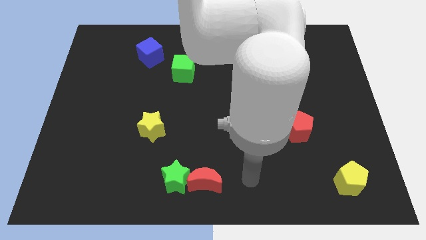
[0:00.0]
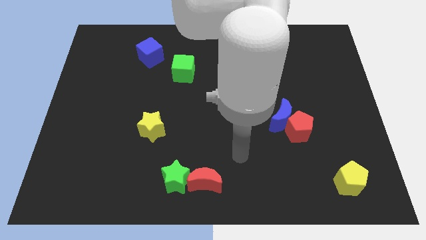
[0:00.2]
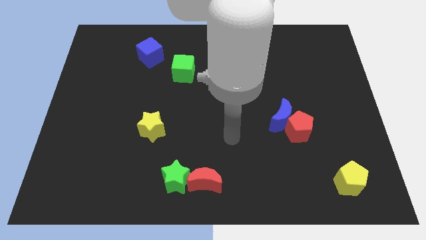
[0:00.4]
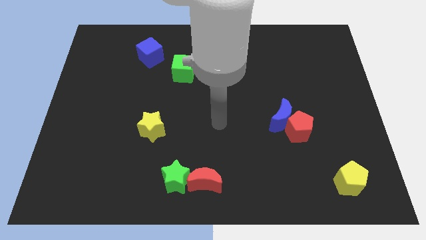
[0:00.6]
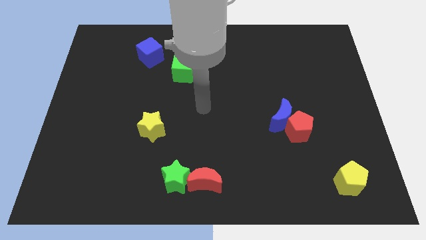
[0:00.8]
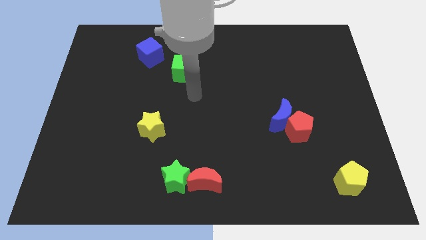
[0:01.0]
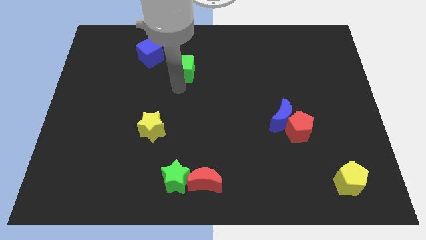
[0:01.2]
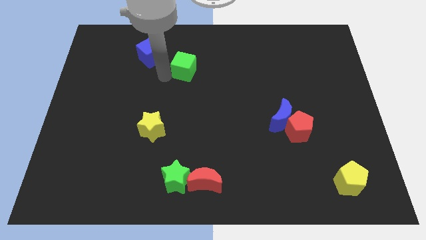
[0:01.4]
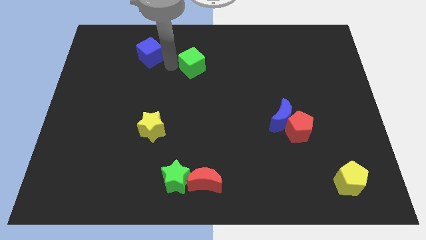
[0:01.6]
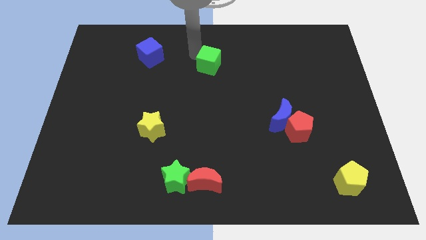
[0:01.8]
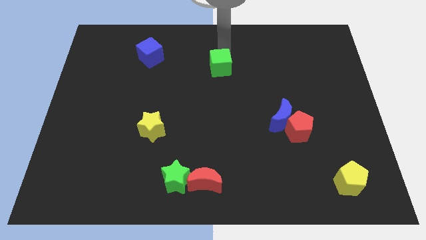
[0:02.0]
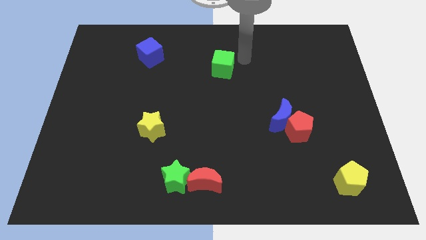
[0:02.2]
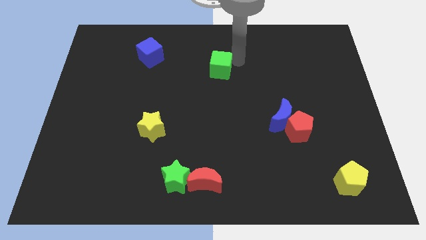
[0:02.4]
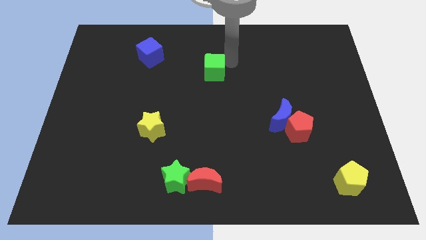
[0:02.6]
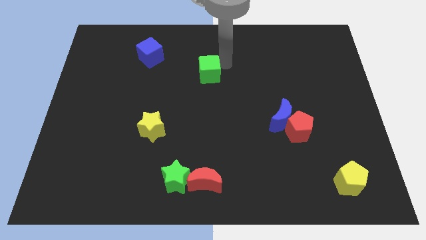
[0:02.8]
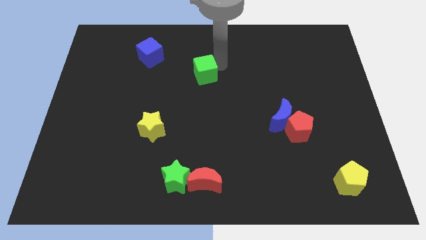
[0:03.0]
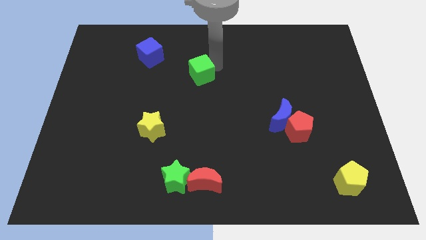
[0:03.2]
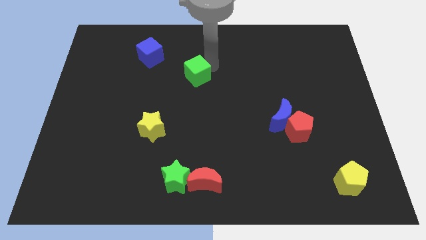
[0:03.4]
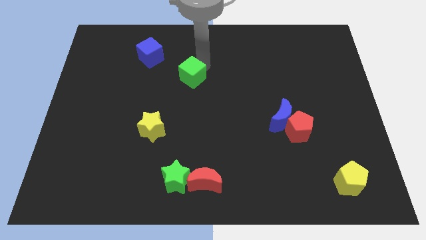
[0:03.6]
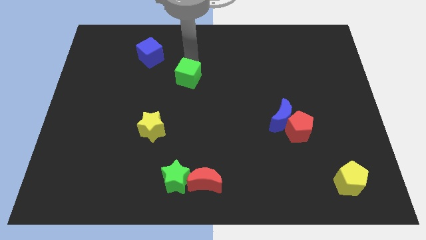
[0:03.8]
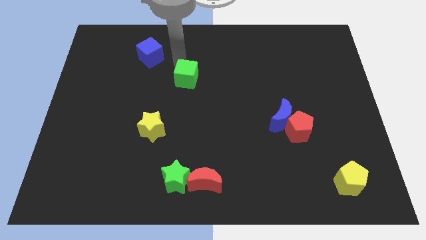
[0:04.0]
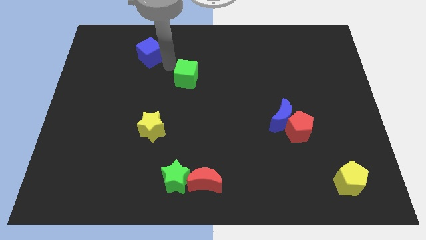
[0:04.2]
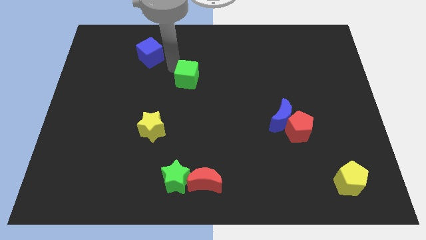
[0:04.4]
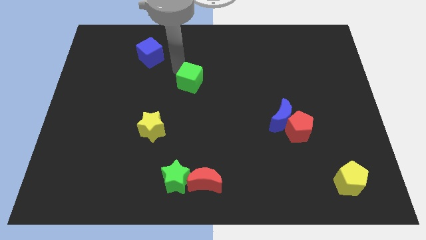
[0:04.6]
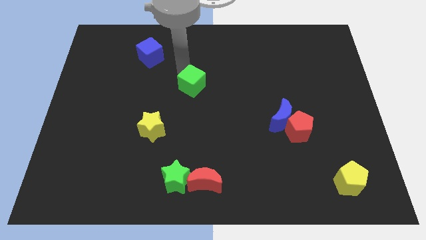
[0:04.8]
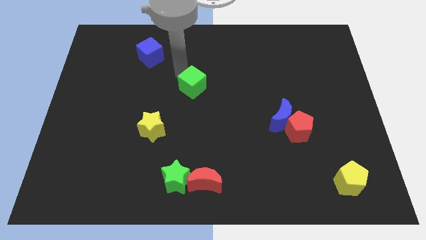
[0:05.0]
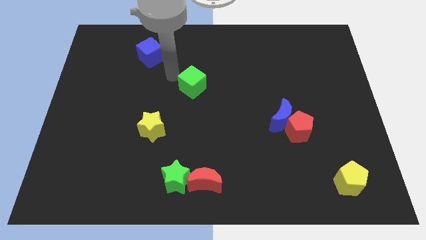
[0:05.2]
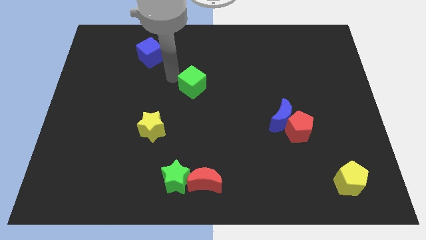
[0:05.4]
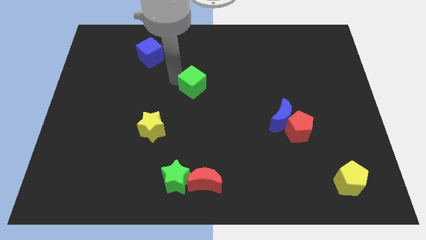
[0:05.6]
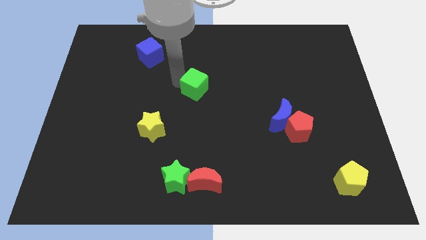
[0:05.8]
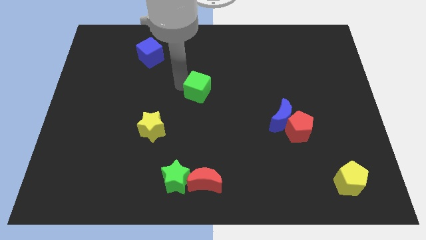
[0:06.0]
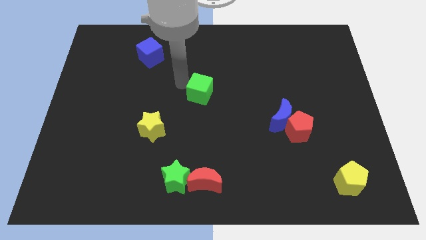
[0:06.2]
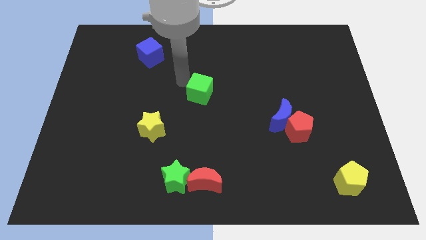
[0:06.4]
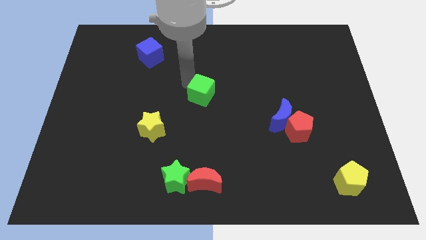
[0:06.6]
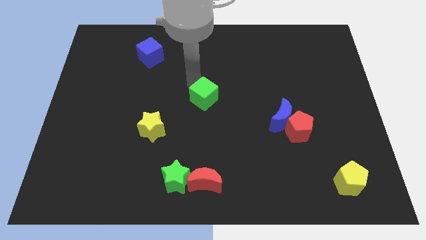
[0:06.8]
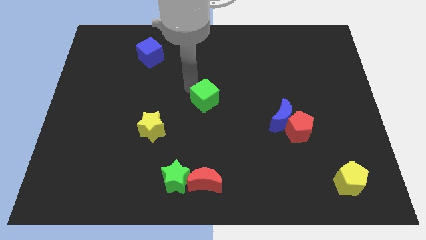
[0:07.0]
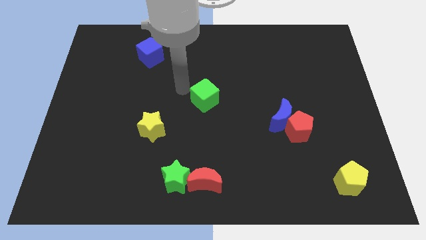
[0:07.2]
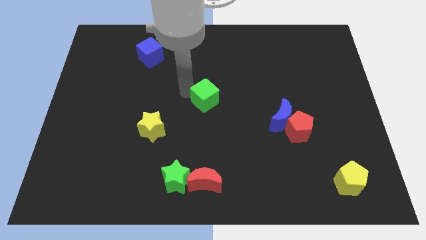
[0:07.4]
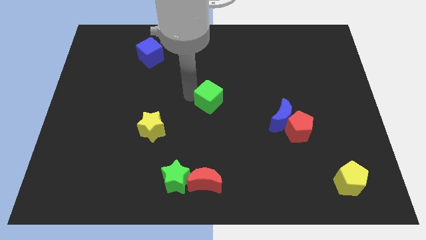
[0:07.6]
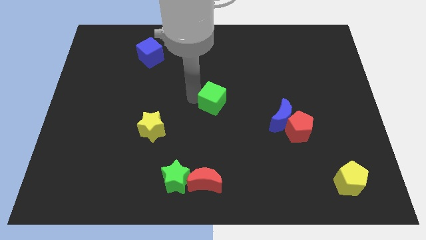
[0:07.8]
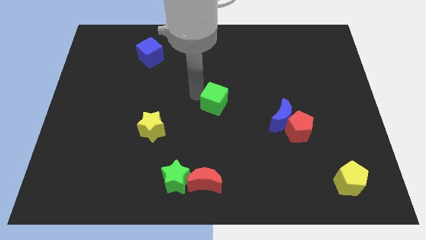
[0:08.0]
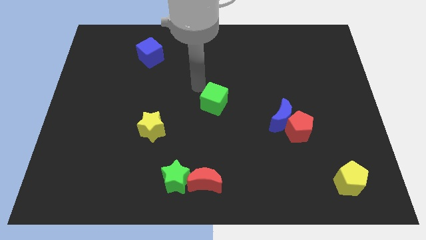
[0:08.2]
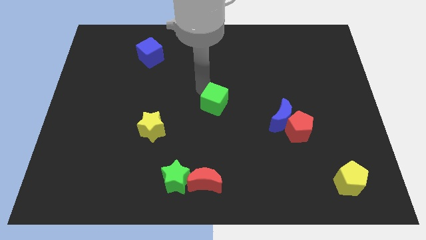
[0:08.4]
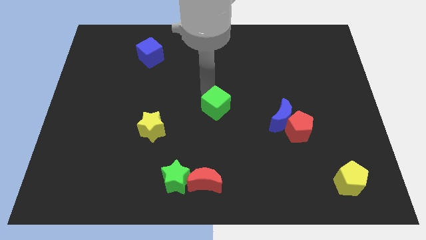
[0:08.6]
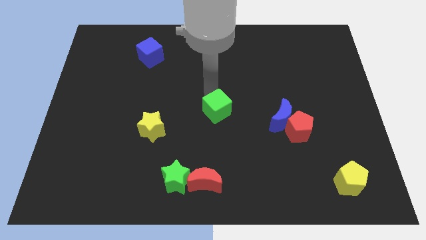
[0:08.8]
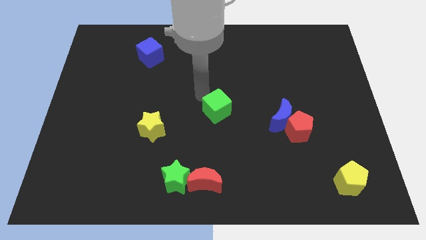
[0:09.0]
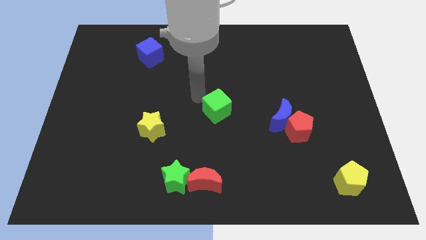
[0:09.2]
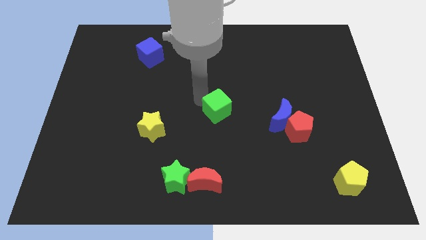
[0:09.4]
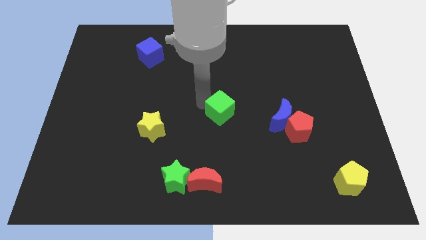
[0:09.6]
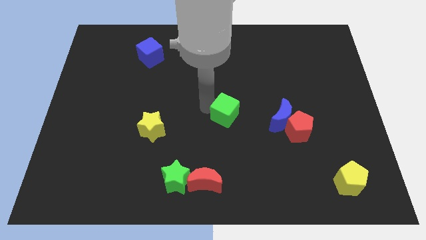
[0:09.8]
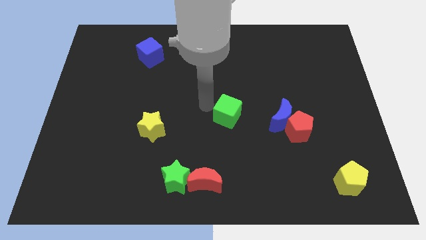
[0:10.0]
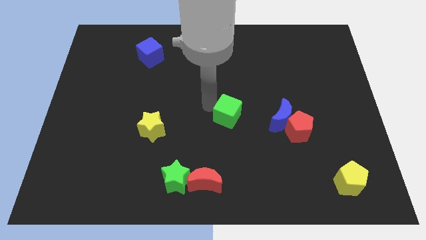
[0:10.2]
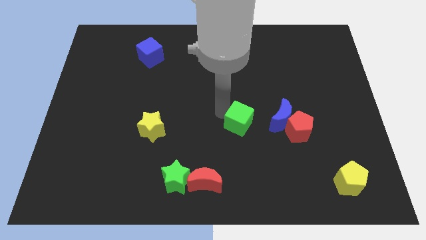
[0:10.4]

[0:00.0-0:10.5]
slide the green cube diagonally downwards and right

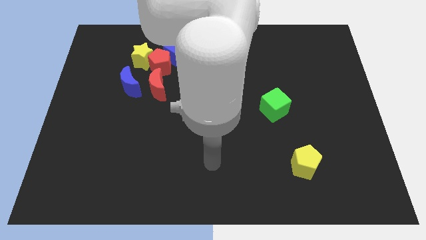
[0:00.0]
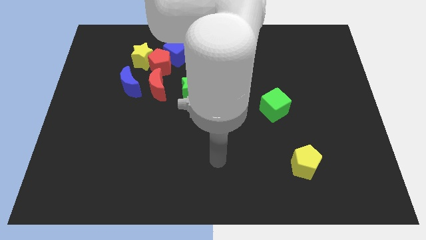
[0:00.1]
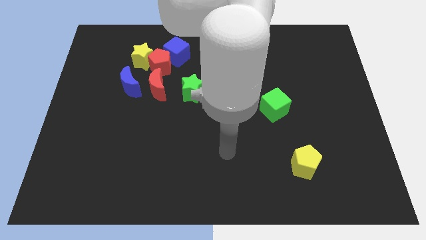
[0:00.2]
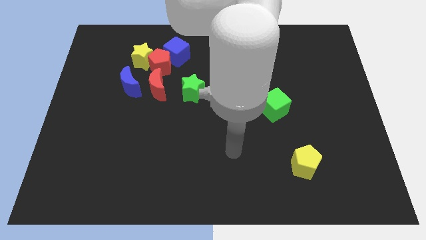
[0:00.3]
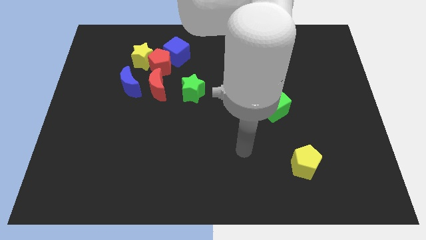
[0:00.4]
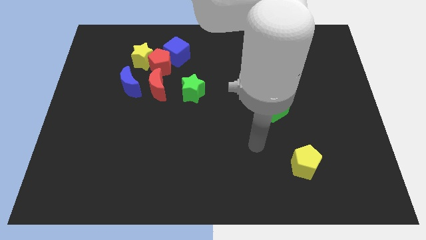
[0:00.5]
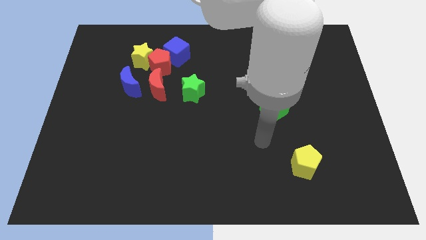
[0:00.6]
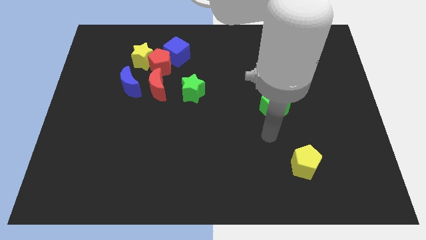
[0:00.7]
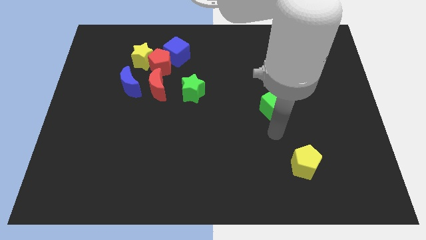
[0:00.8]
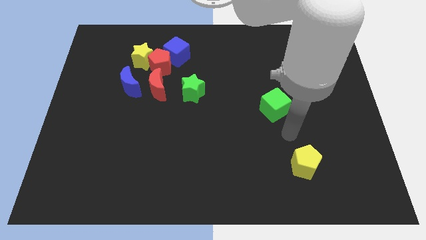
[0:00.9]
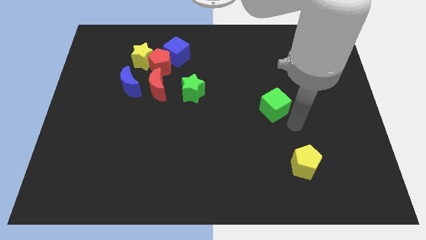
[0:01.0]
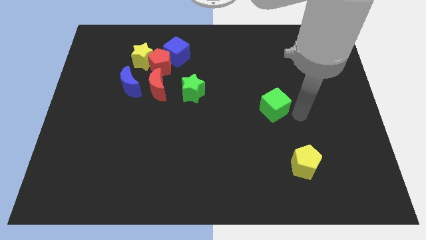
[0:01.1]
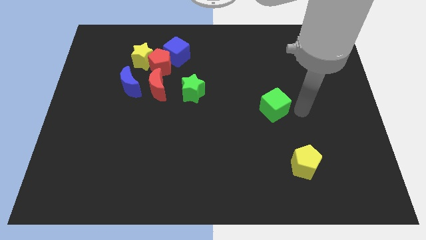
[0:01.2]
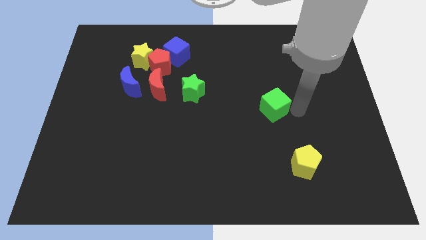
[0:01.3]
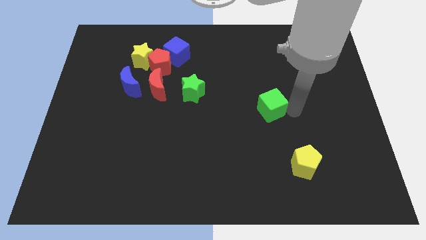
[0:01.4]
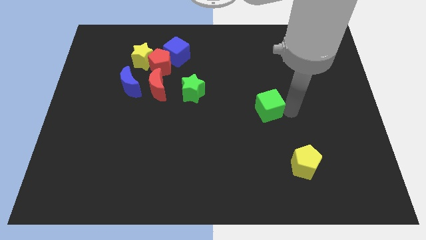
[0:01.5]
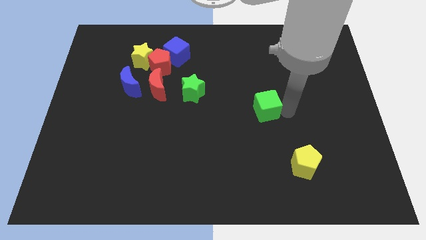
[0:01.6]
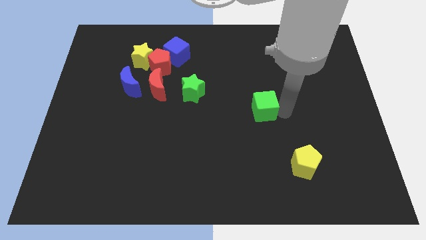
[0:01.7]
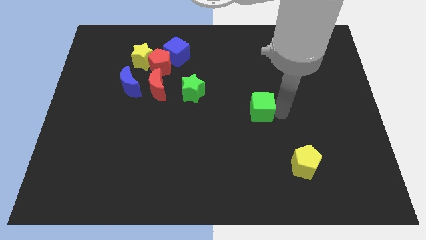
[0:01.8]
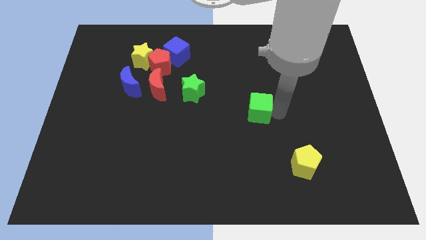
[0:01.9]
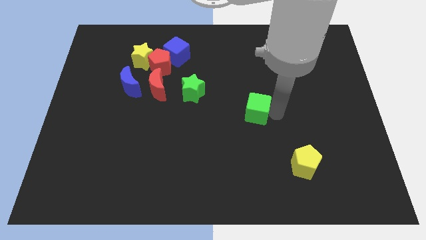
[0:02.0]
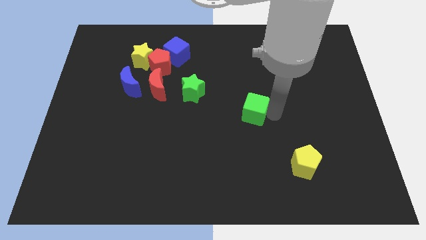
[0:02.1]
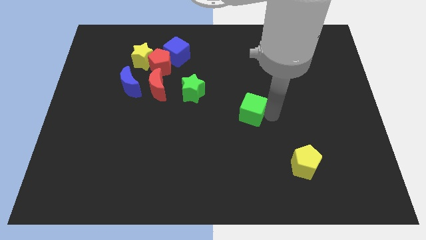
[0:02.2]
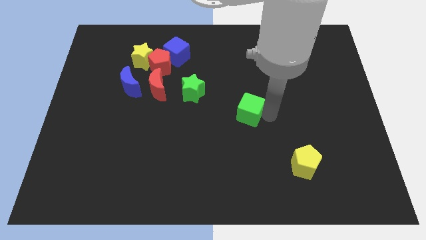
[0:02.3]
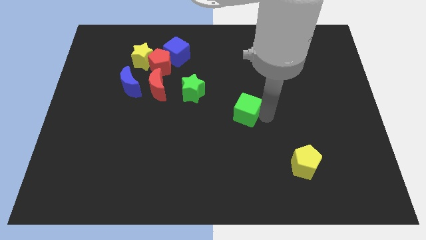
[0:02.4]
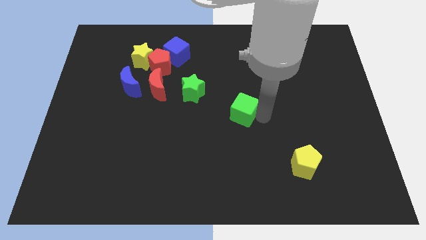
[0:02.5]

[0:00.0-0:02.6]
slightly push the green cube to the left

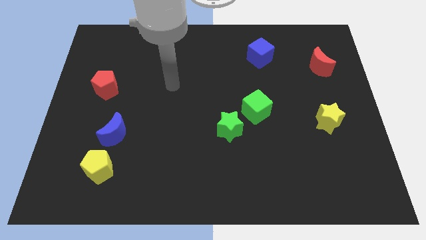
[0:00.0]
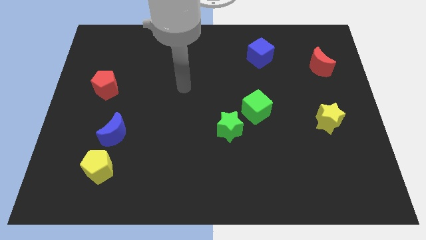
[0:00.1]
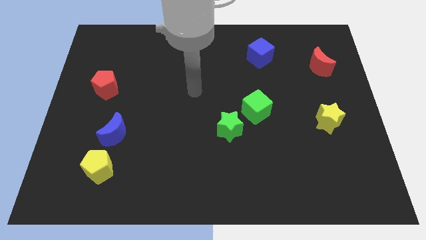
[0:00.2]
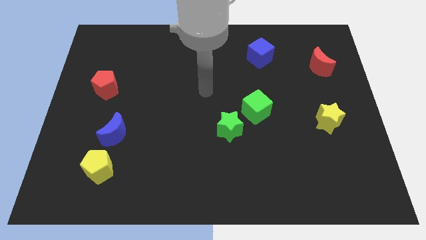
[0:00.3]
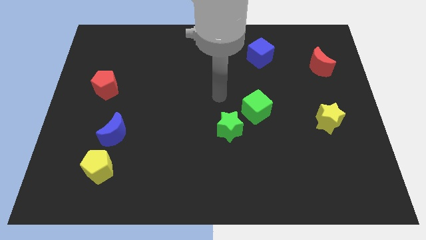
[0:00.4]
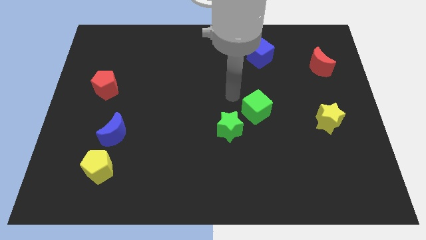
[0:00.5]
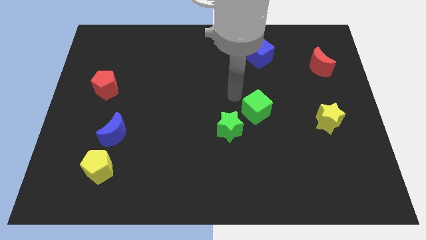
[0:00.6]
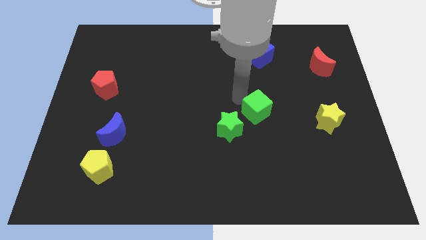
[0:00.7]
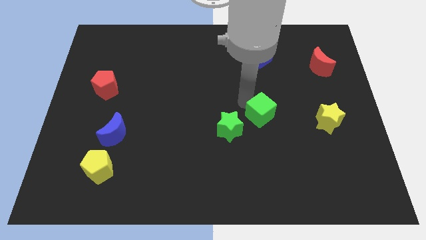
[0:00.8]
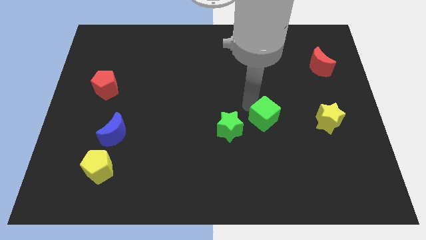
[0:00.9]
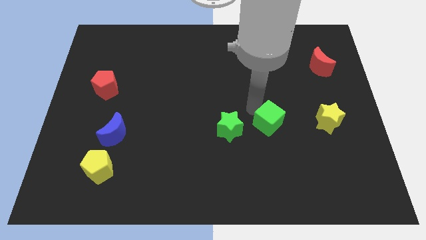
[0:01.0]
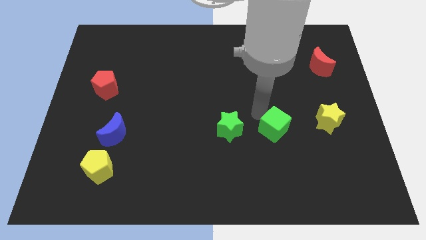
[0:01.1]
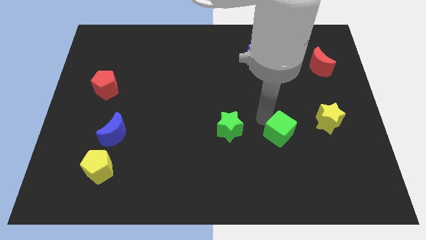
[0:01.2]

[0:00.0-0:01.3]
push the green cube downwards and then to the right somewhat
